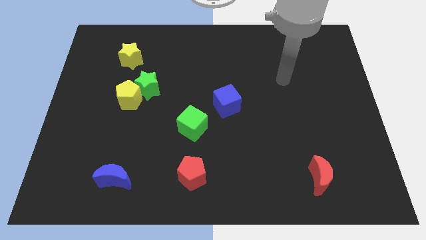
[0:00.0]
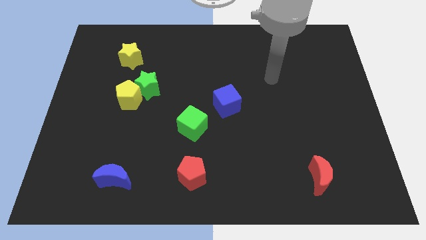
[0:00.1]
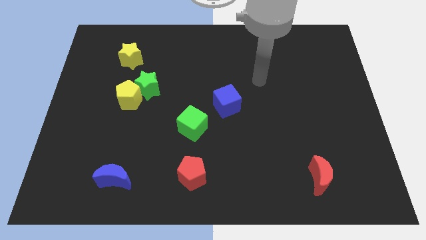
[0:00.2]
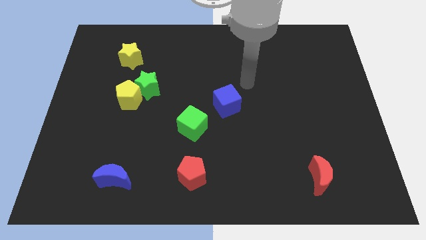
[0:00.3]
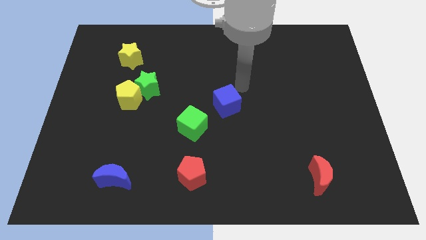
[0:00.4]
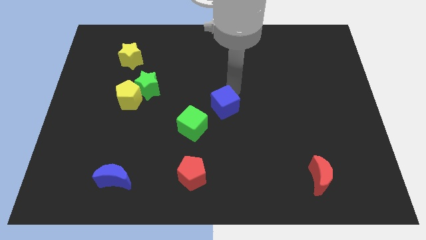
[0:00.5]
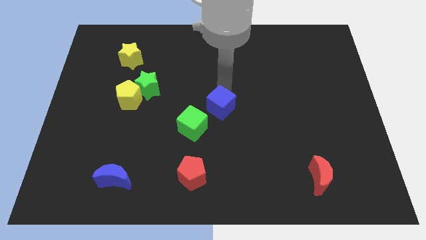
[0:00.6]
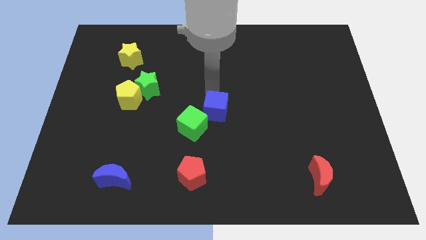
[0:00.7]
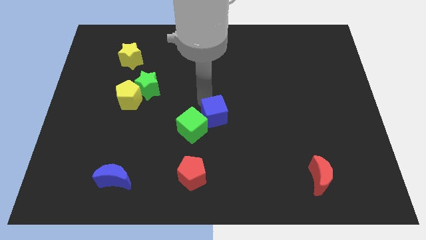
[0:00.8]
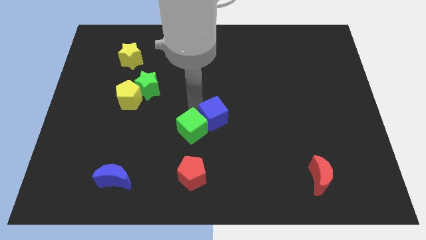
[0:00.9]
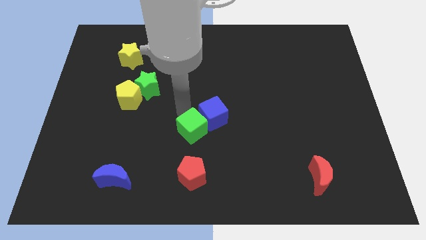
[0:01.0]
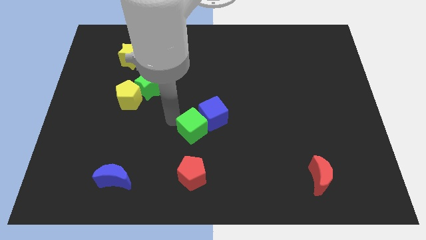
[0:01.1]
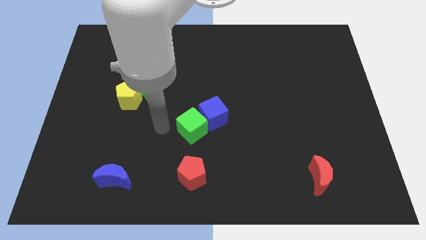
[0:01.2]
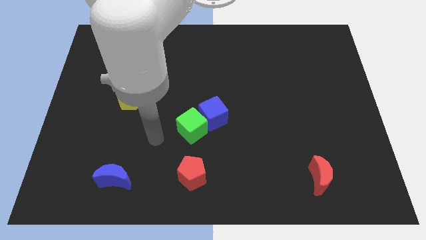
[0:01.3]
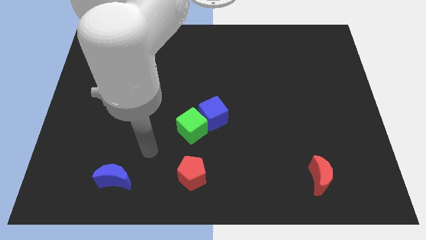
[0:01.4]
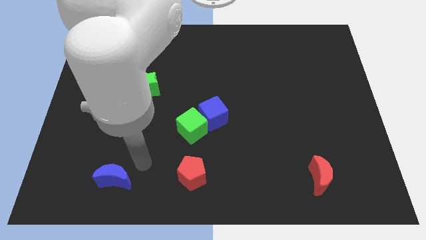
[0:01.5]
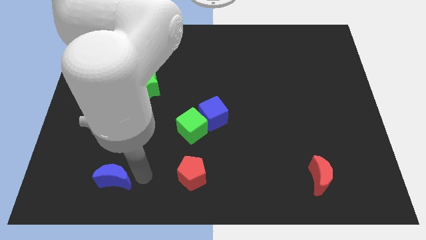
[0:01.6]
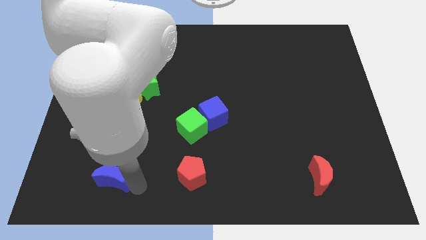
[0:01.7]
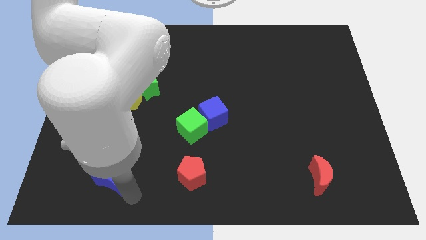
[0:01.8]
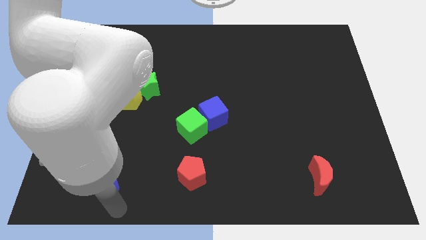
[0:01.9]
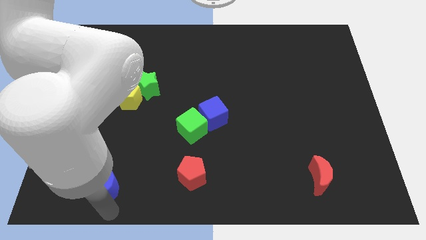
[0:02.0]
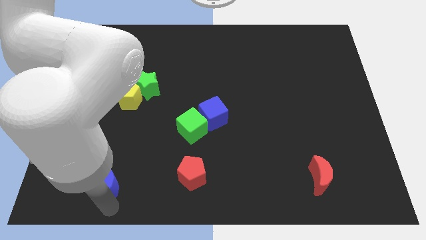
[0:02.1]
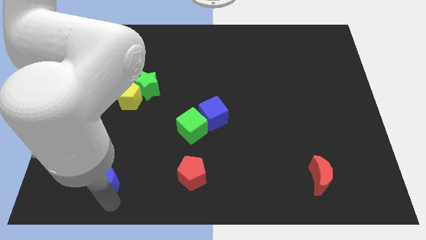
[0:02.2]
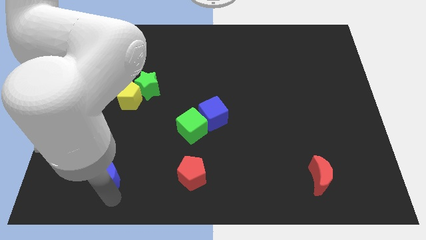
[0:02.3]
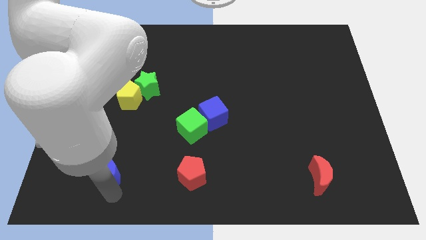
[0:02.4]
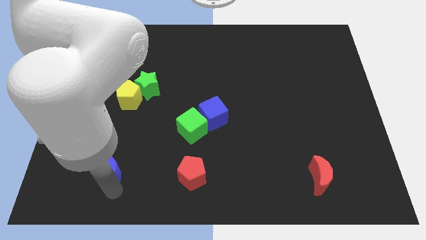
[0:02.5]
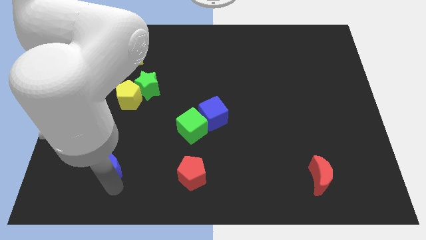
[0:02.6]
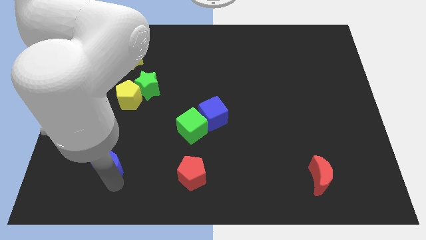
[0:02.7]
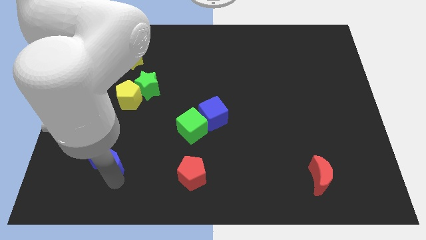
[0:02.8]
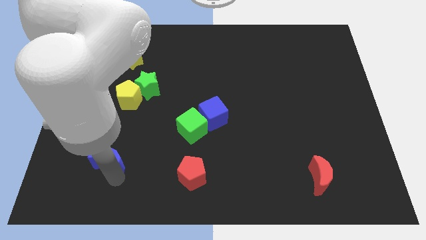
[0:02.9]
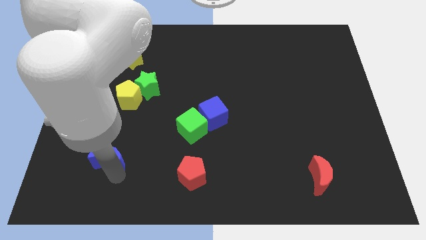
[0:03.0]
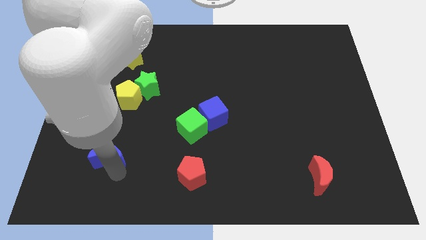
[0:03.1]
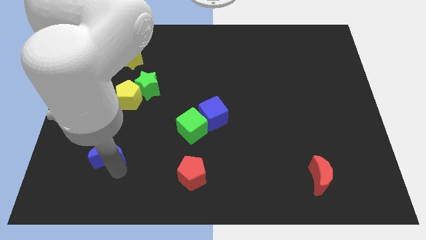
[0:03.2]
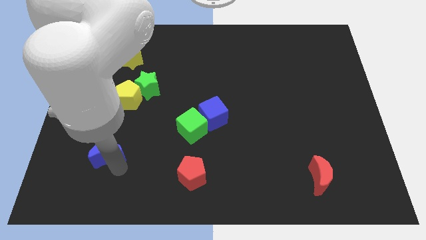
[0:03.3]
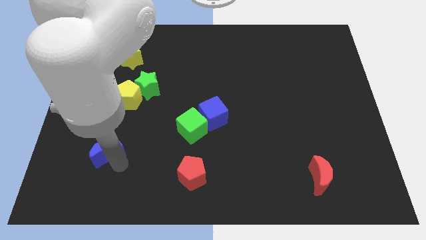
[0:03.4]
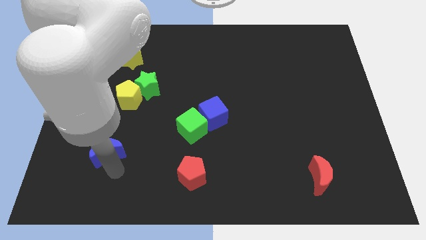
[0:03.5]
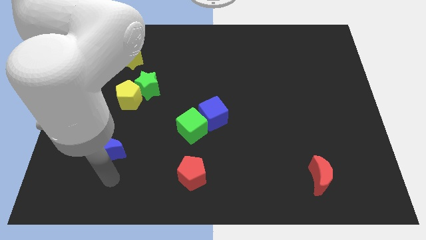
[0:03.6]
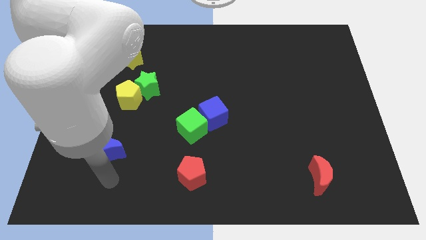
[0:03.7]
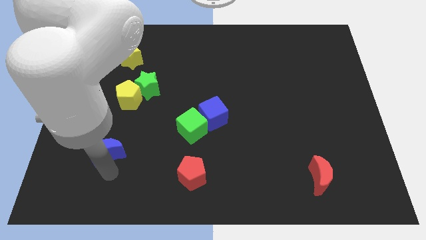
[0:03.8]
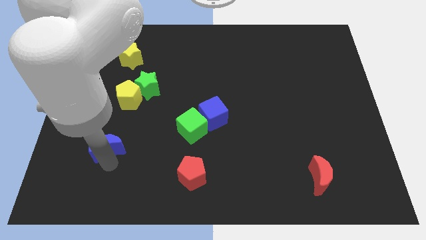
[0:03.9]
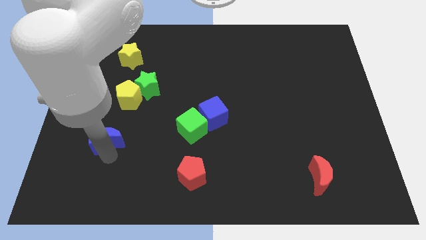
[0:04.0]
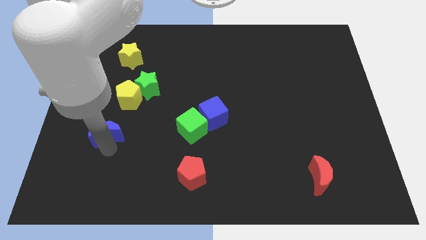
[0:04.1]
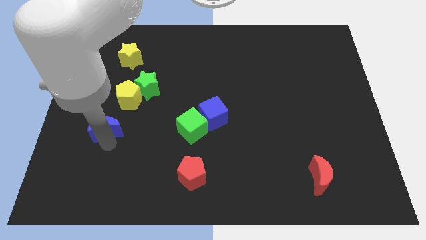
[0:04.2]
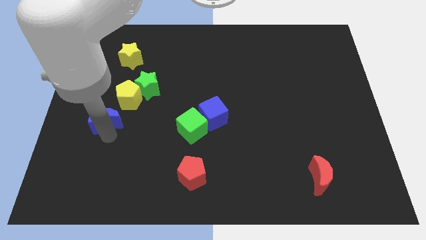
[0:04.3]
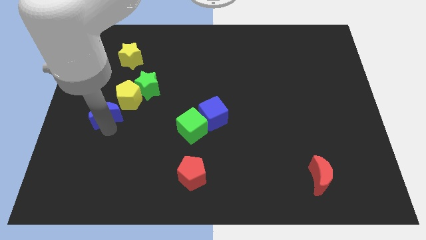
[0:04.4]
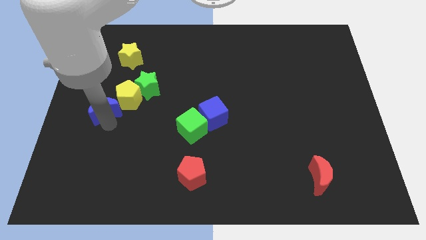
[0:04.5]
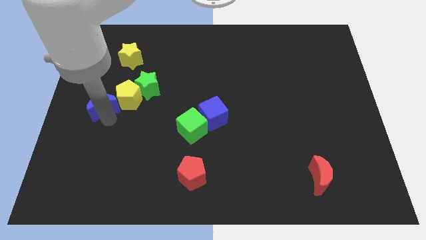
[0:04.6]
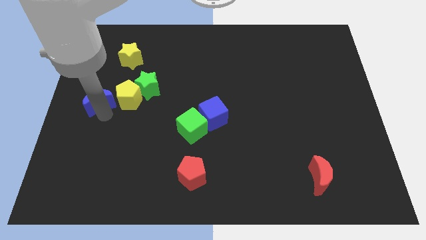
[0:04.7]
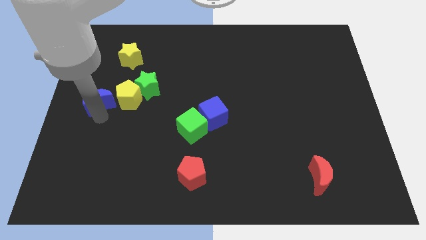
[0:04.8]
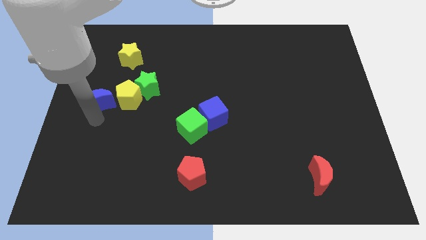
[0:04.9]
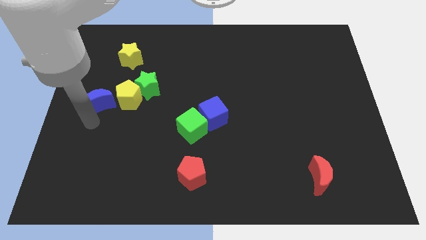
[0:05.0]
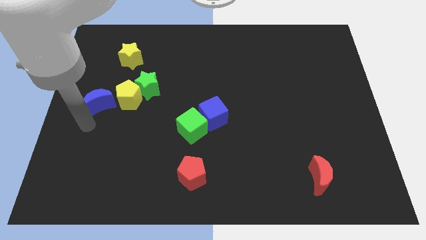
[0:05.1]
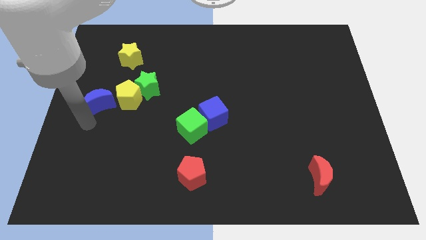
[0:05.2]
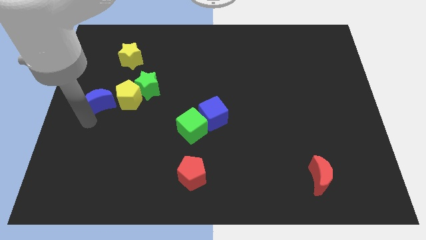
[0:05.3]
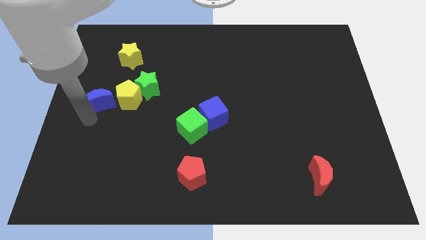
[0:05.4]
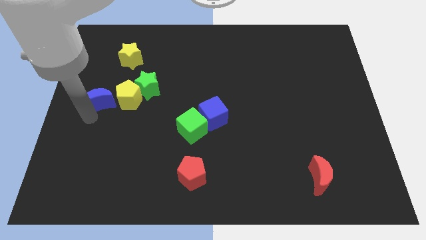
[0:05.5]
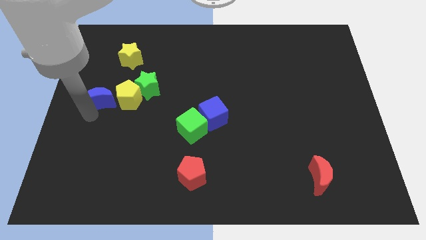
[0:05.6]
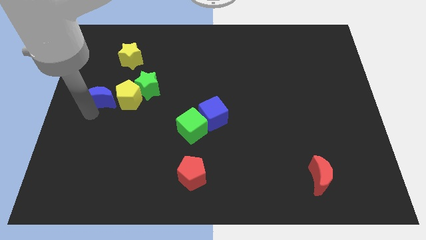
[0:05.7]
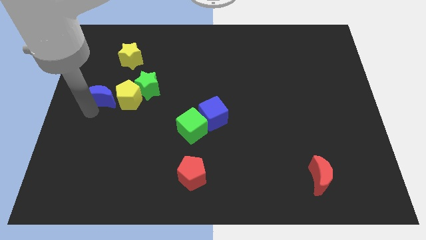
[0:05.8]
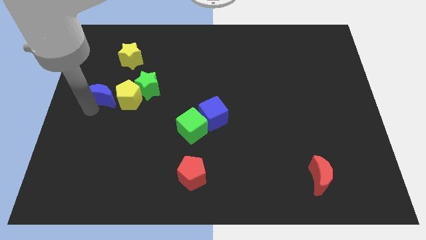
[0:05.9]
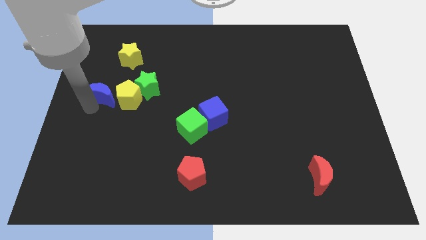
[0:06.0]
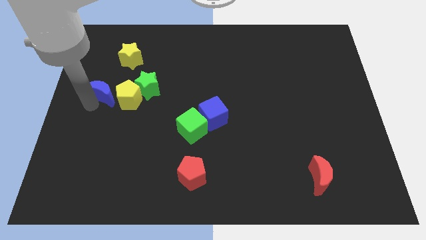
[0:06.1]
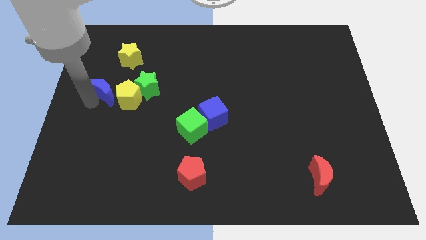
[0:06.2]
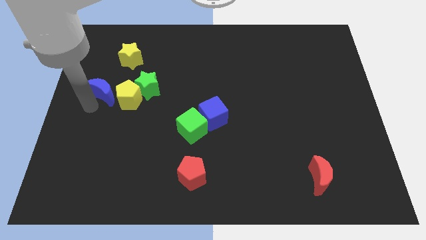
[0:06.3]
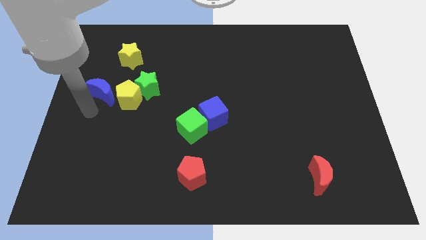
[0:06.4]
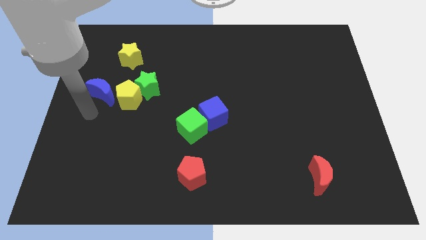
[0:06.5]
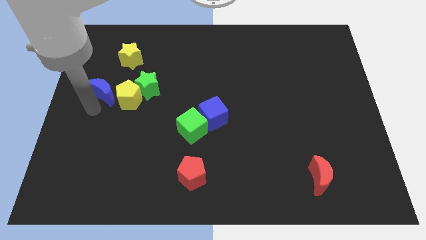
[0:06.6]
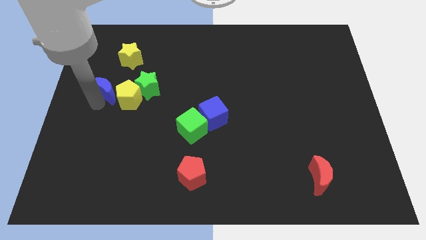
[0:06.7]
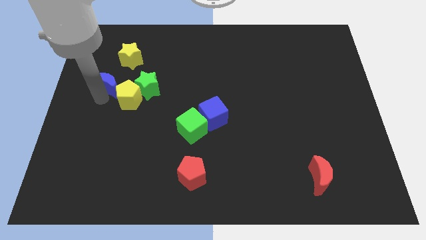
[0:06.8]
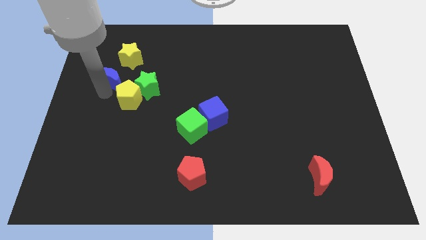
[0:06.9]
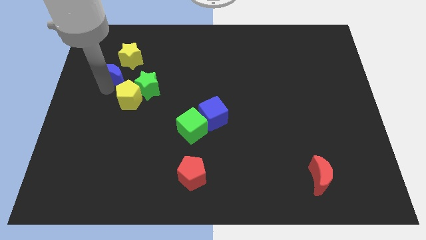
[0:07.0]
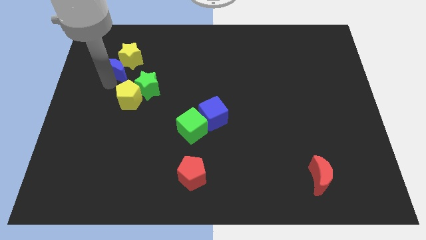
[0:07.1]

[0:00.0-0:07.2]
put the blue moon to the yellow star

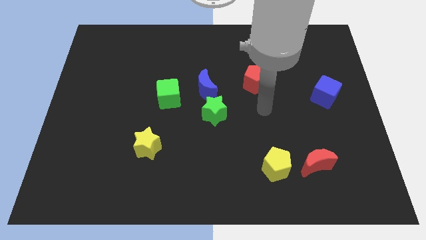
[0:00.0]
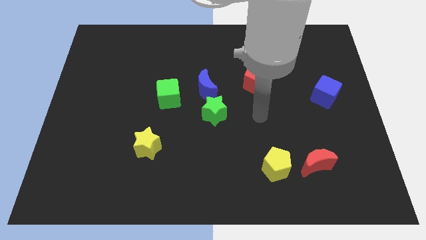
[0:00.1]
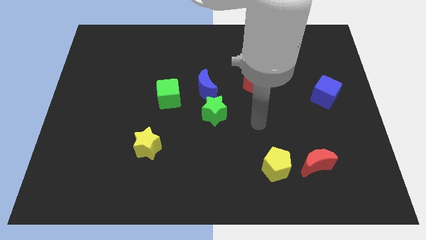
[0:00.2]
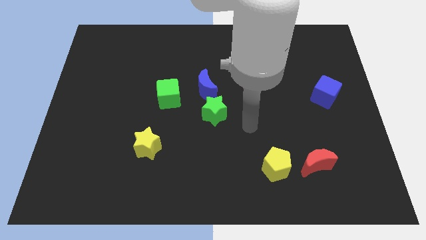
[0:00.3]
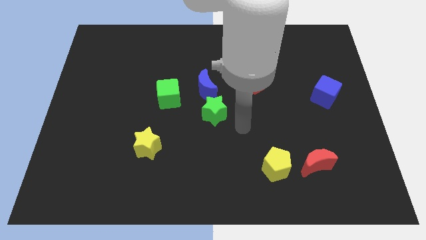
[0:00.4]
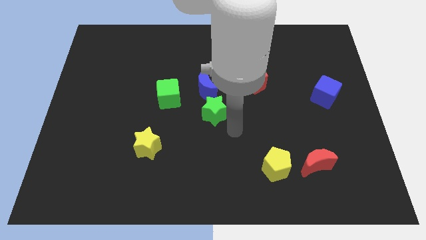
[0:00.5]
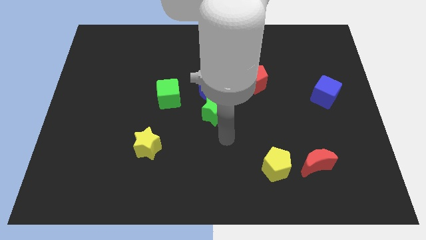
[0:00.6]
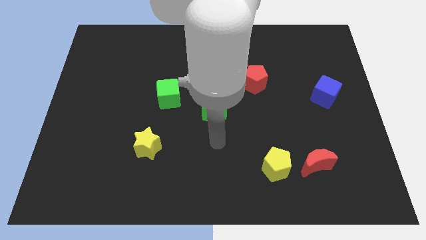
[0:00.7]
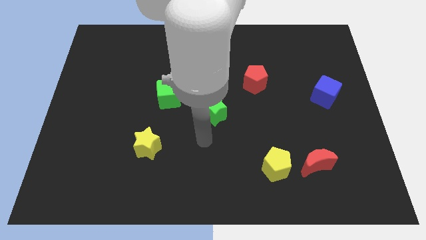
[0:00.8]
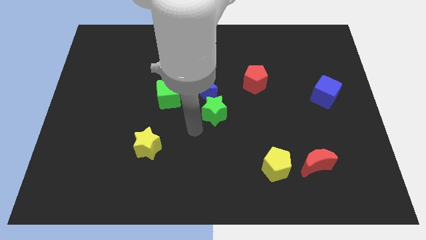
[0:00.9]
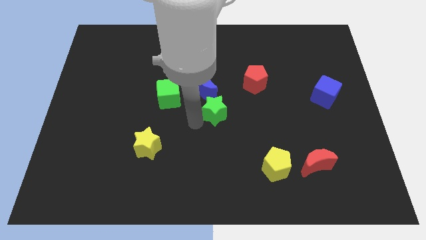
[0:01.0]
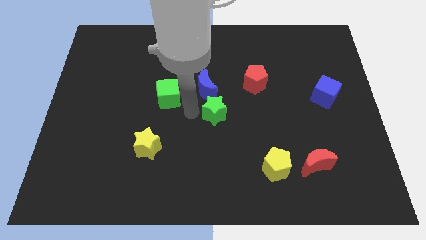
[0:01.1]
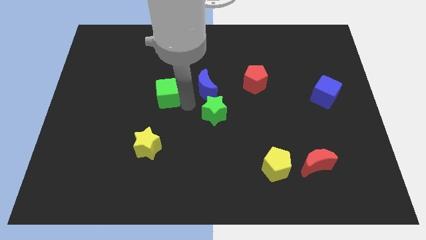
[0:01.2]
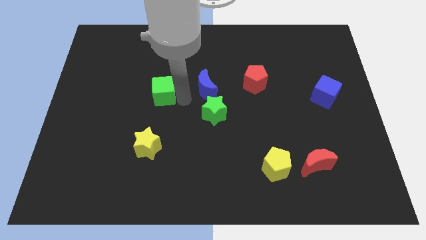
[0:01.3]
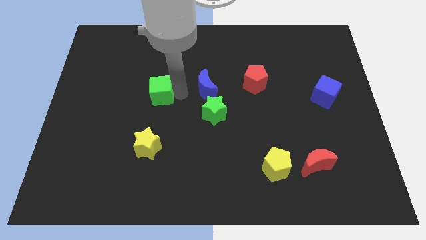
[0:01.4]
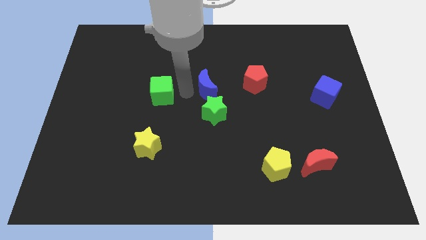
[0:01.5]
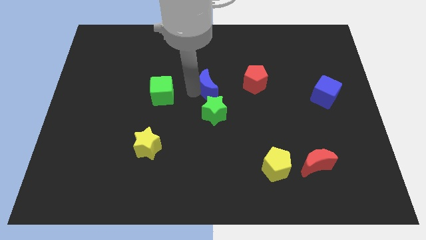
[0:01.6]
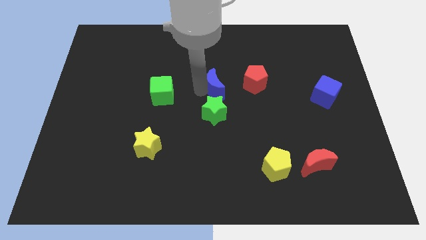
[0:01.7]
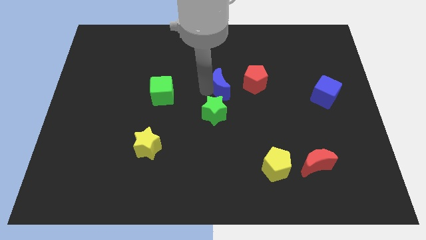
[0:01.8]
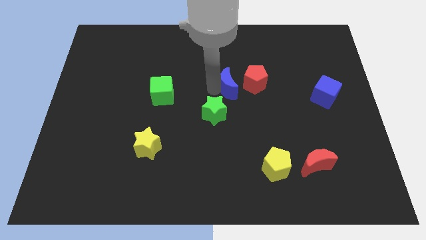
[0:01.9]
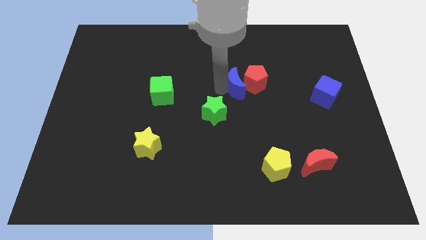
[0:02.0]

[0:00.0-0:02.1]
put the blue moon next to the red pentagon
